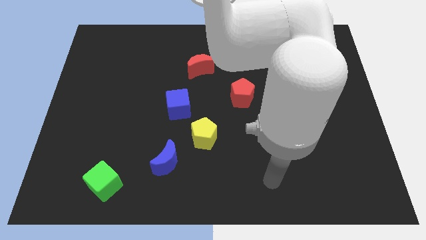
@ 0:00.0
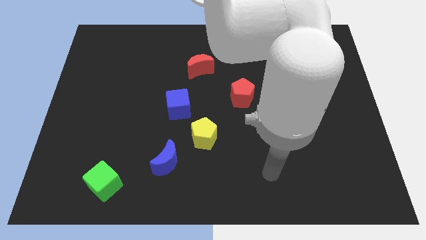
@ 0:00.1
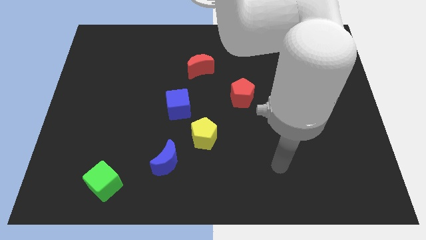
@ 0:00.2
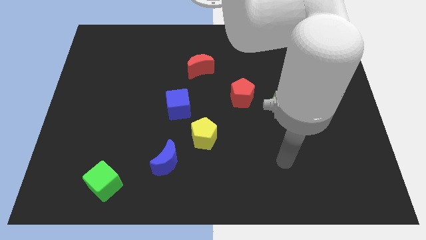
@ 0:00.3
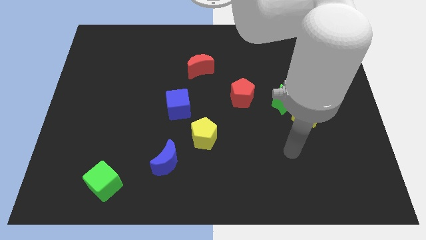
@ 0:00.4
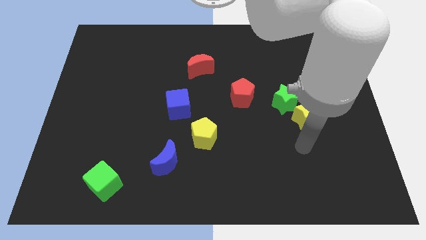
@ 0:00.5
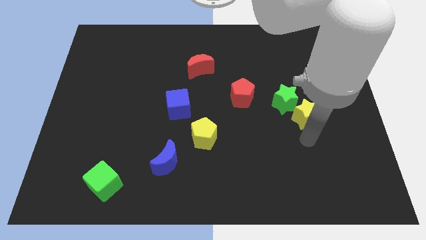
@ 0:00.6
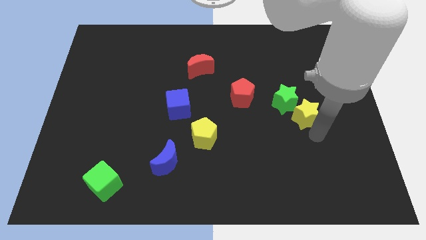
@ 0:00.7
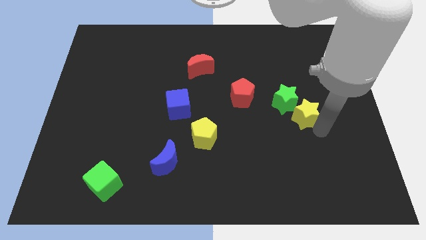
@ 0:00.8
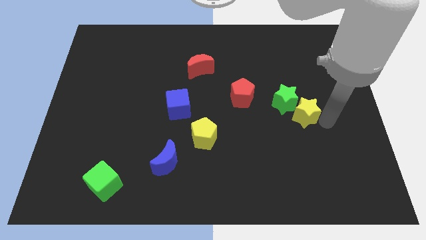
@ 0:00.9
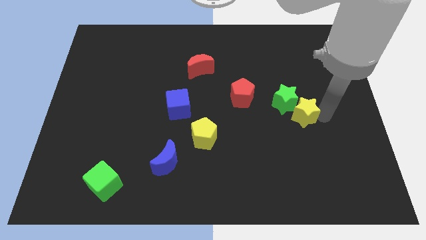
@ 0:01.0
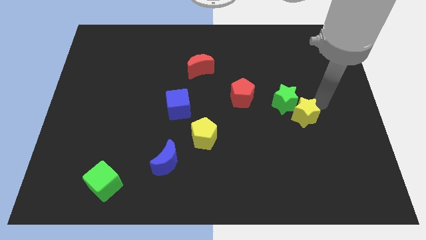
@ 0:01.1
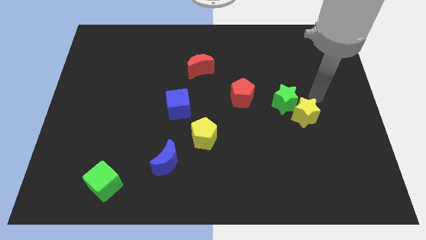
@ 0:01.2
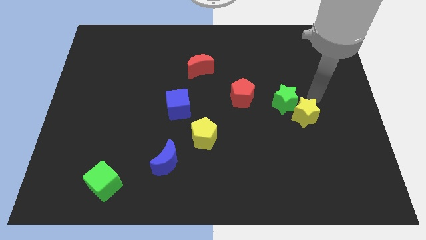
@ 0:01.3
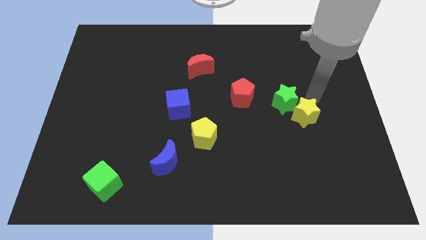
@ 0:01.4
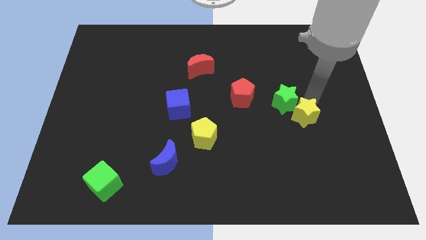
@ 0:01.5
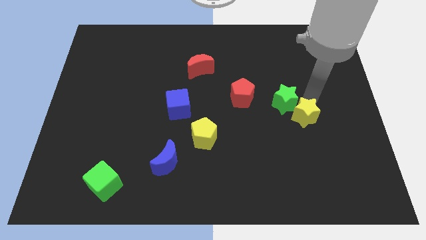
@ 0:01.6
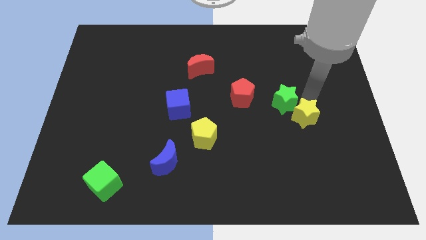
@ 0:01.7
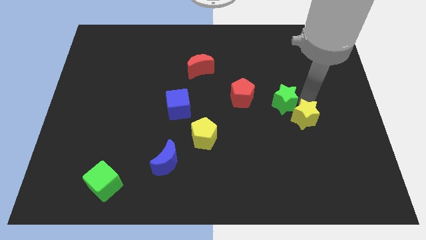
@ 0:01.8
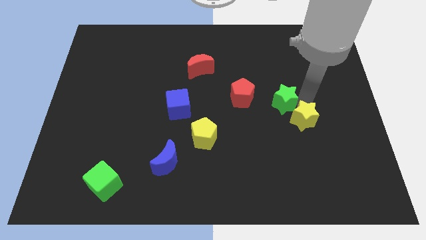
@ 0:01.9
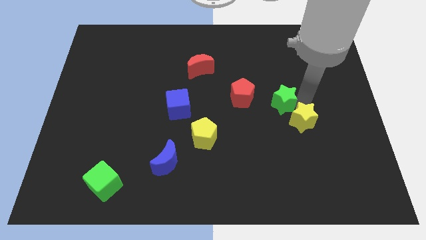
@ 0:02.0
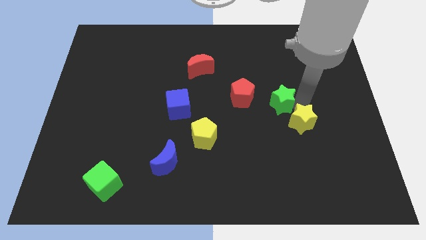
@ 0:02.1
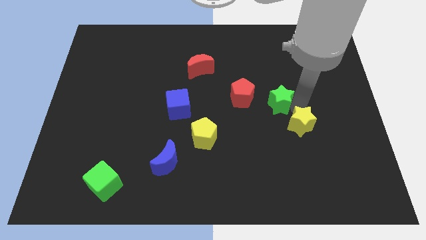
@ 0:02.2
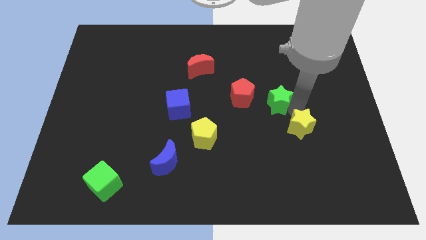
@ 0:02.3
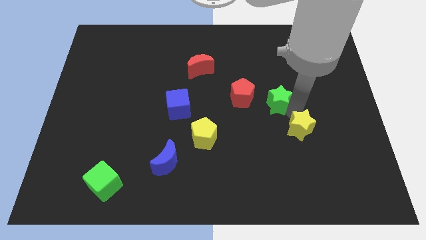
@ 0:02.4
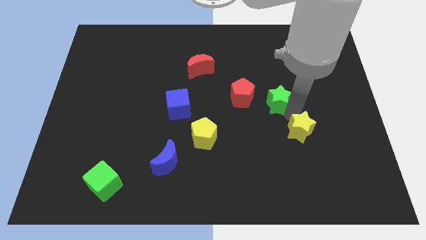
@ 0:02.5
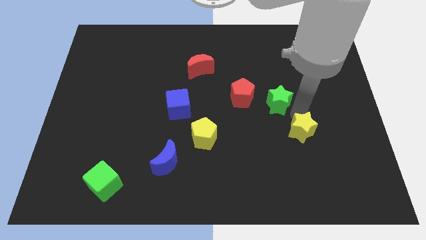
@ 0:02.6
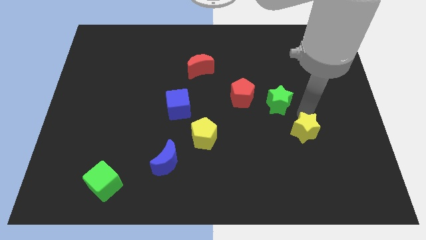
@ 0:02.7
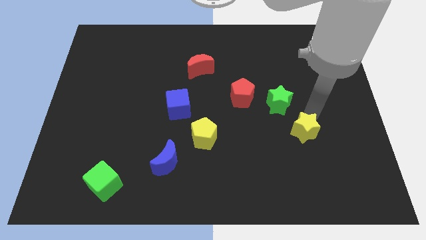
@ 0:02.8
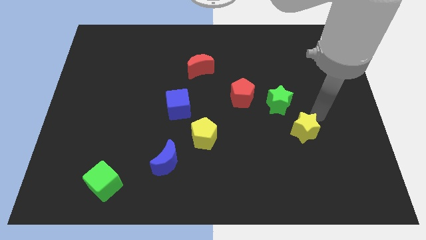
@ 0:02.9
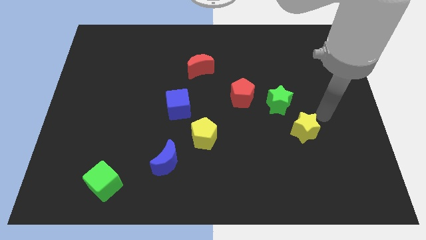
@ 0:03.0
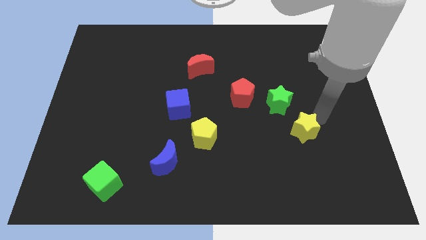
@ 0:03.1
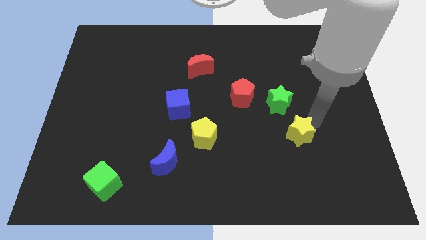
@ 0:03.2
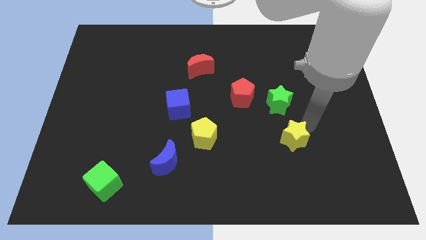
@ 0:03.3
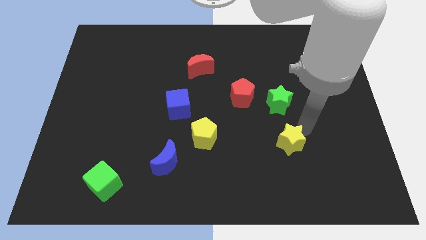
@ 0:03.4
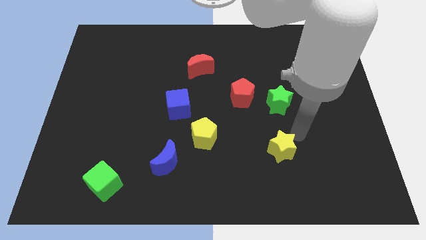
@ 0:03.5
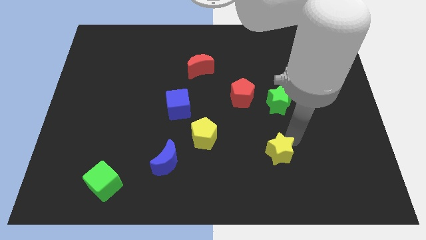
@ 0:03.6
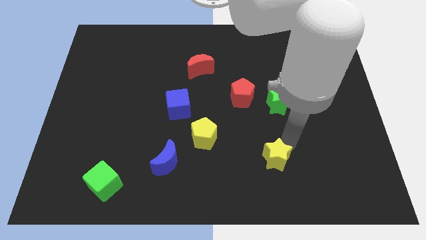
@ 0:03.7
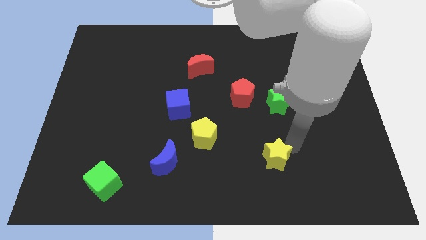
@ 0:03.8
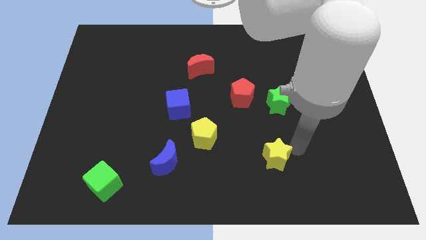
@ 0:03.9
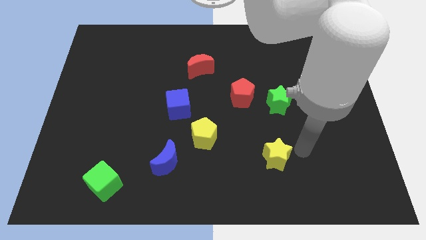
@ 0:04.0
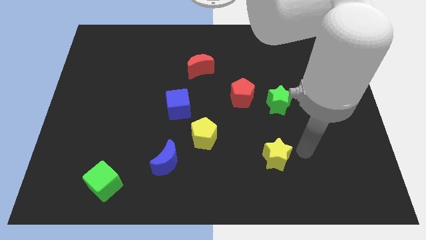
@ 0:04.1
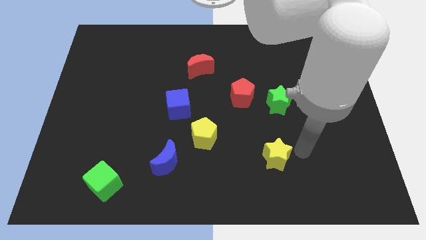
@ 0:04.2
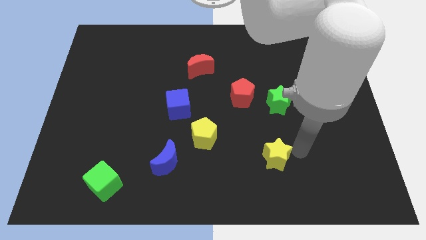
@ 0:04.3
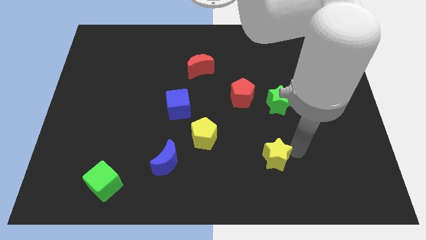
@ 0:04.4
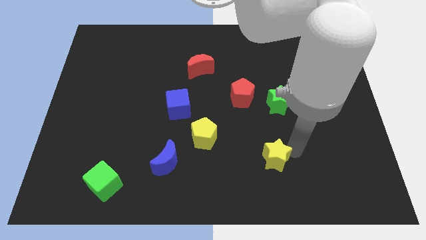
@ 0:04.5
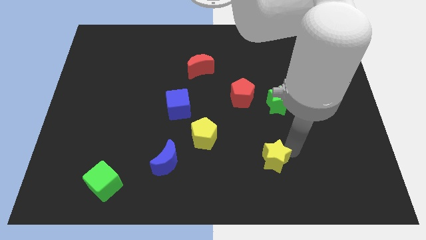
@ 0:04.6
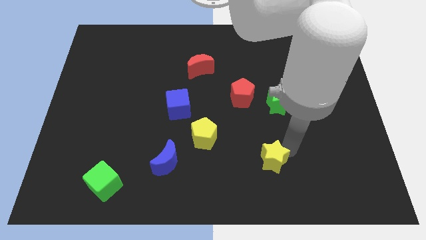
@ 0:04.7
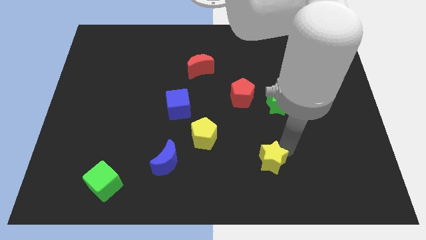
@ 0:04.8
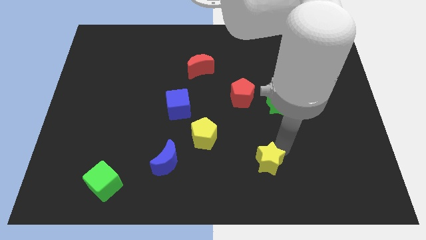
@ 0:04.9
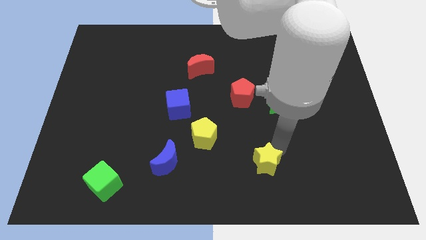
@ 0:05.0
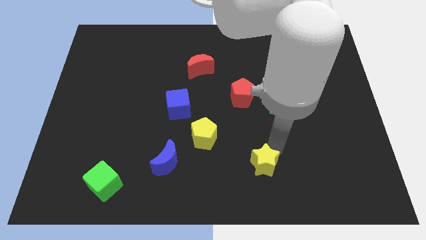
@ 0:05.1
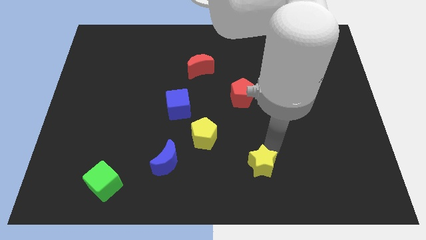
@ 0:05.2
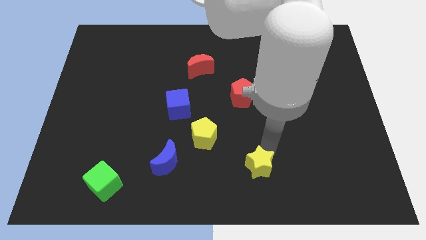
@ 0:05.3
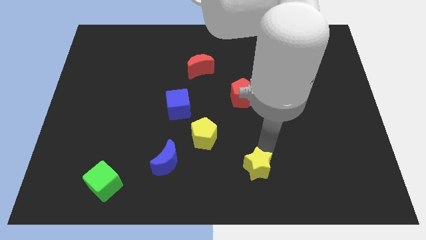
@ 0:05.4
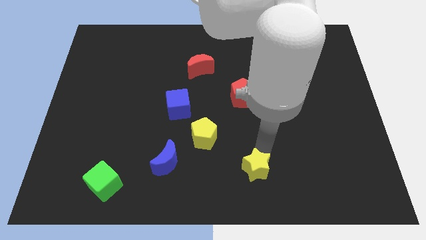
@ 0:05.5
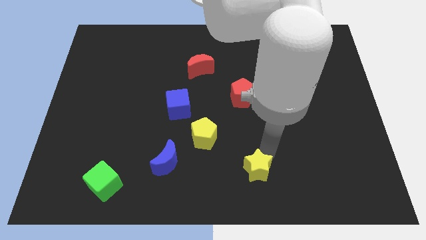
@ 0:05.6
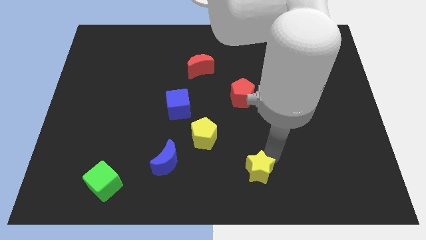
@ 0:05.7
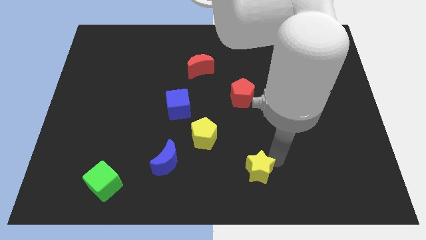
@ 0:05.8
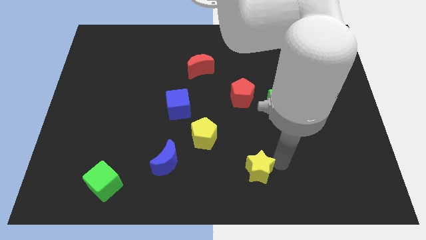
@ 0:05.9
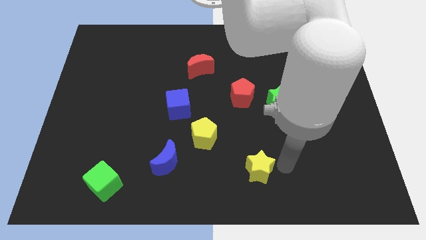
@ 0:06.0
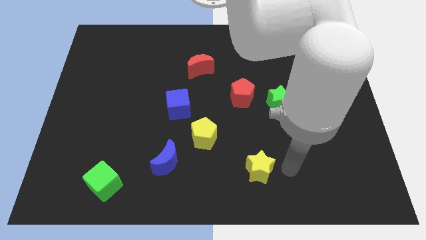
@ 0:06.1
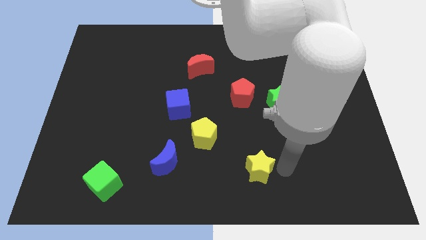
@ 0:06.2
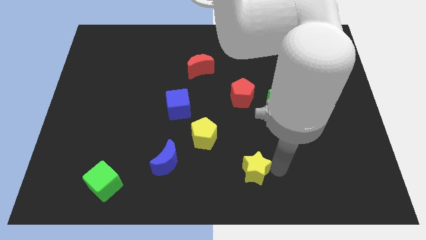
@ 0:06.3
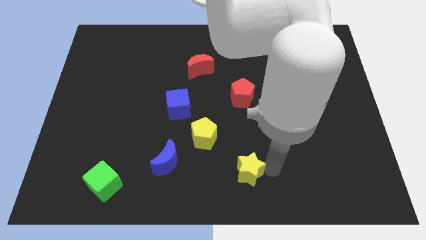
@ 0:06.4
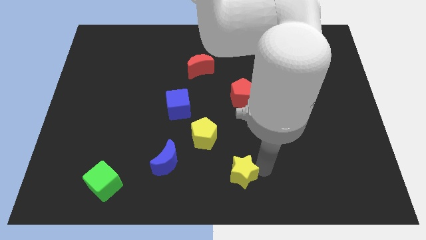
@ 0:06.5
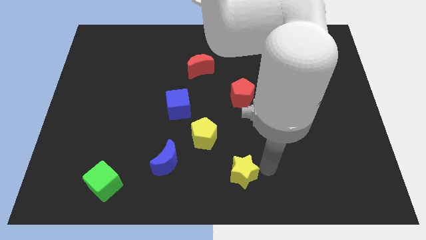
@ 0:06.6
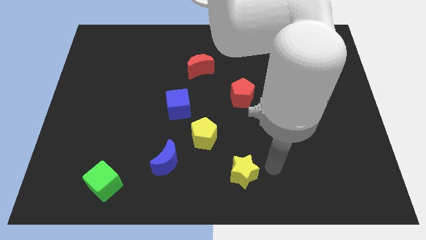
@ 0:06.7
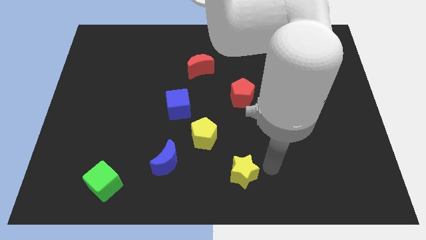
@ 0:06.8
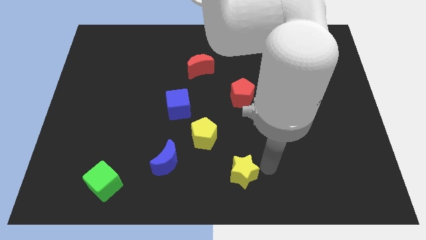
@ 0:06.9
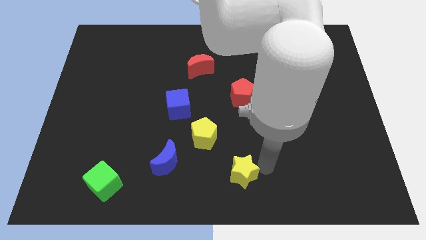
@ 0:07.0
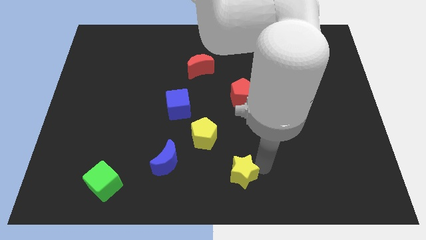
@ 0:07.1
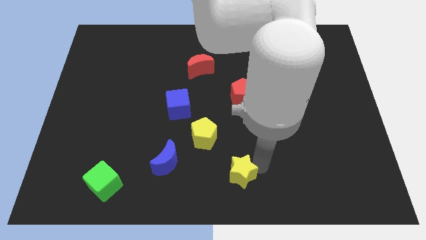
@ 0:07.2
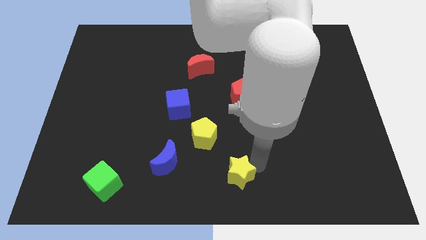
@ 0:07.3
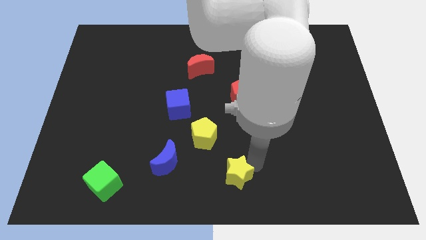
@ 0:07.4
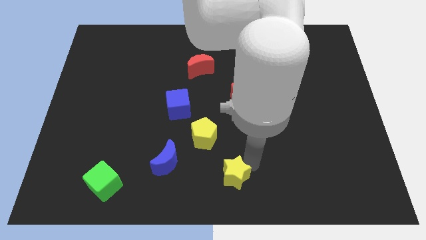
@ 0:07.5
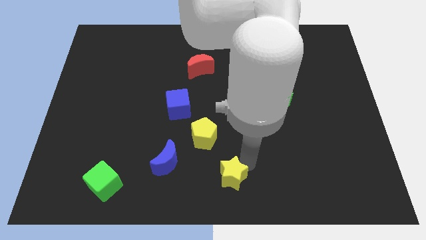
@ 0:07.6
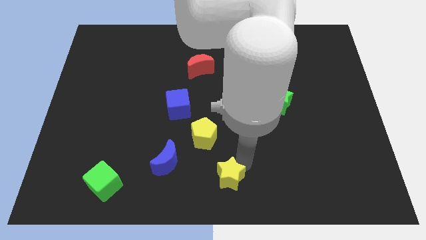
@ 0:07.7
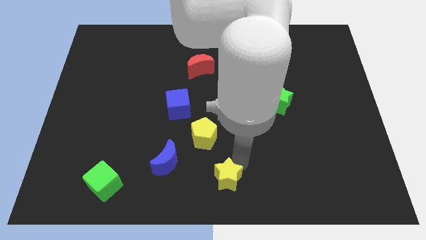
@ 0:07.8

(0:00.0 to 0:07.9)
move the yellow star to the bottom side of the yellow pentagon
